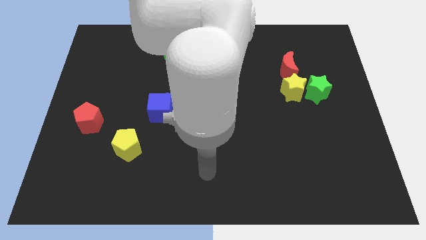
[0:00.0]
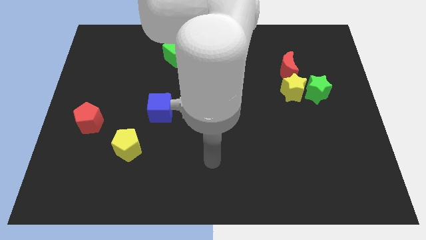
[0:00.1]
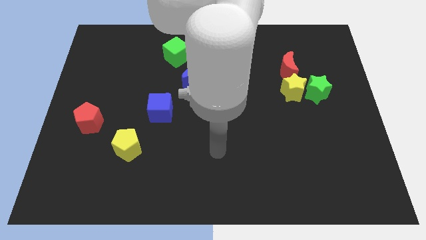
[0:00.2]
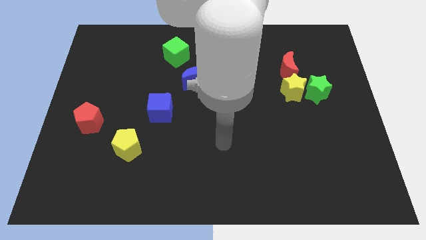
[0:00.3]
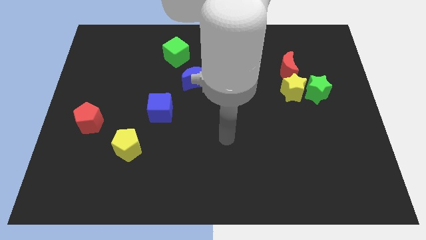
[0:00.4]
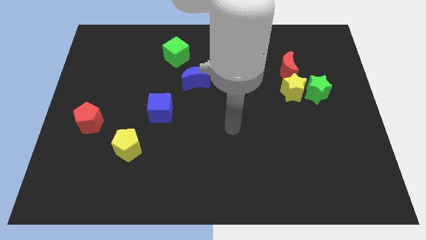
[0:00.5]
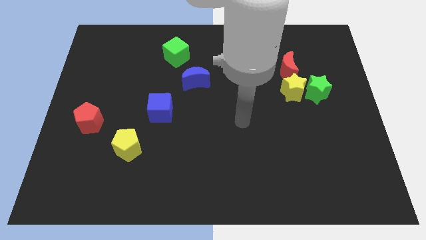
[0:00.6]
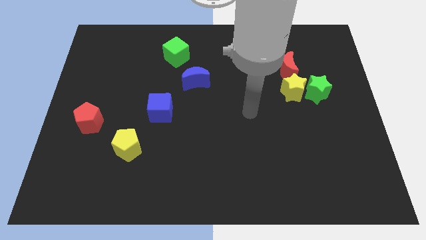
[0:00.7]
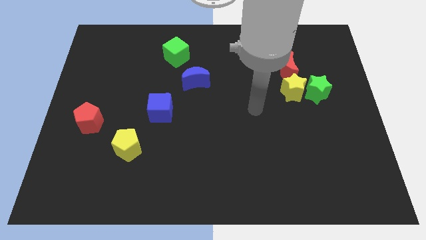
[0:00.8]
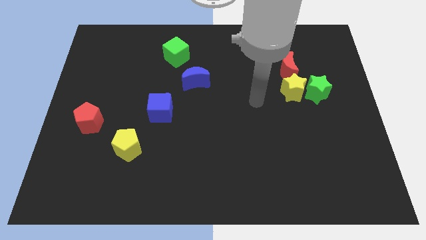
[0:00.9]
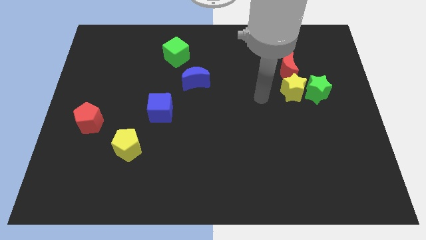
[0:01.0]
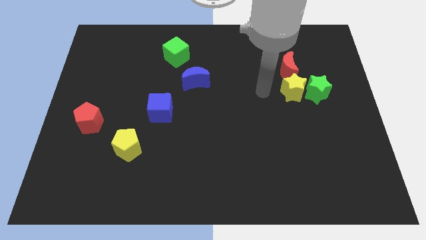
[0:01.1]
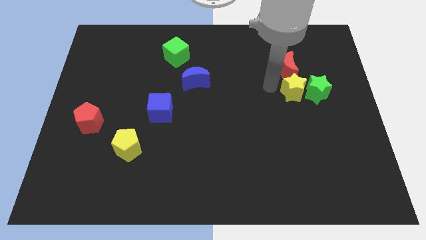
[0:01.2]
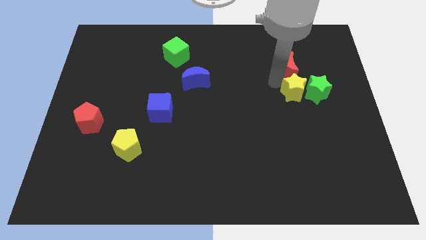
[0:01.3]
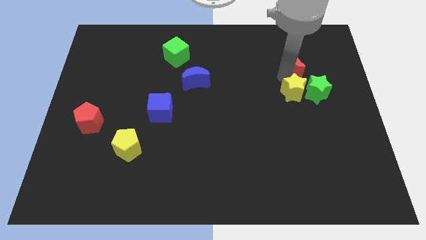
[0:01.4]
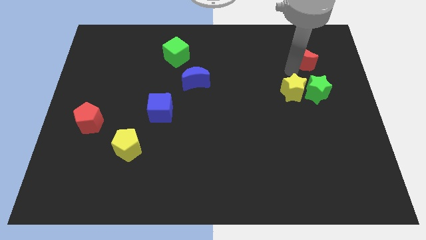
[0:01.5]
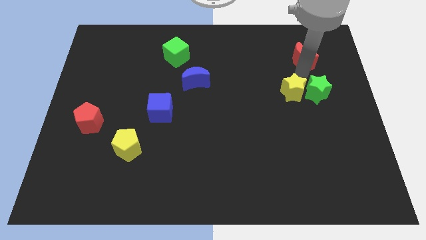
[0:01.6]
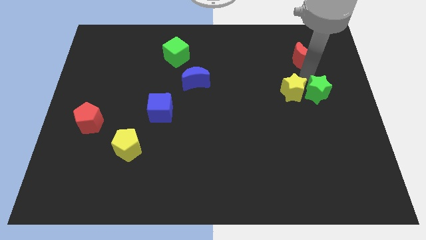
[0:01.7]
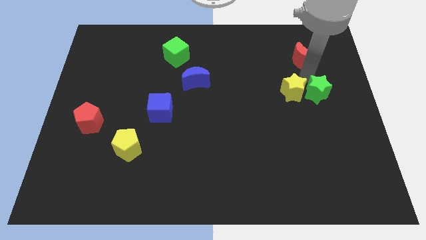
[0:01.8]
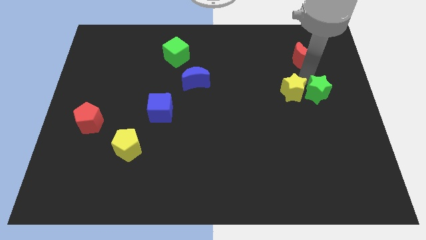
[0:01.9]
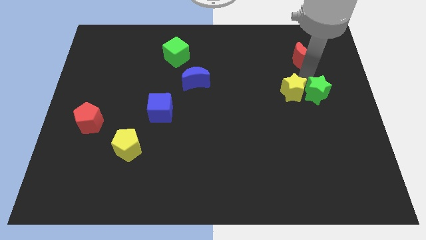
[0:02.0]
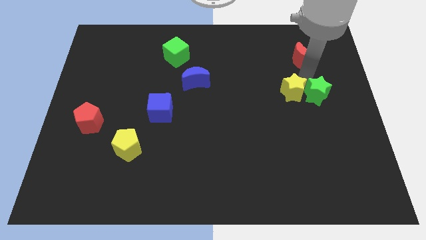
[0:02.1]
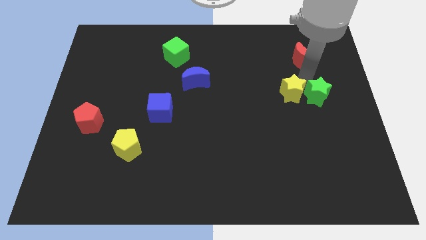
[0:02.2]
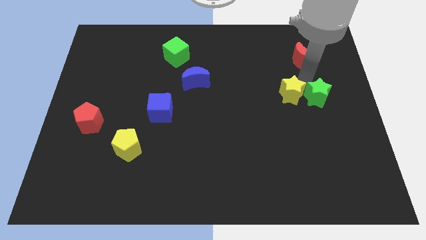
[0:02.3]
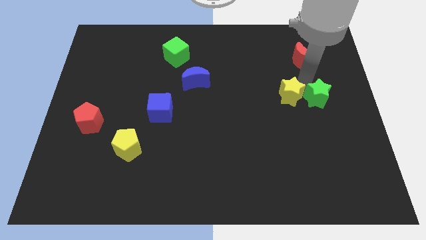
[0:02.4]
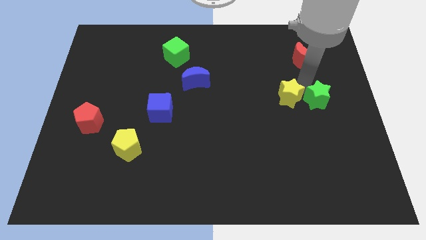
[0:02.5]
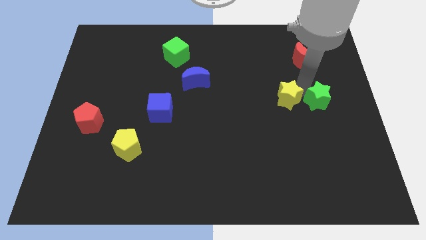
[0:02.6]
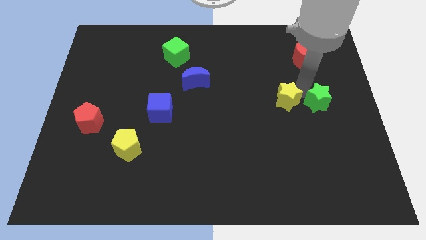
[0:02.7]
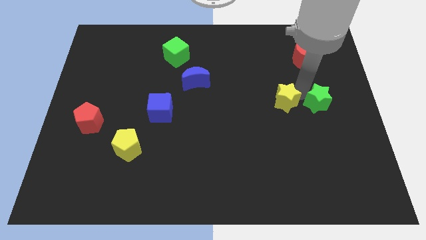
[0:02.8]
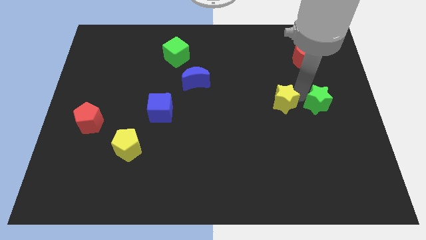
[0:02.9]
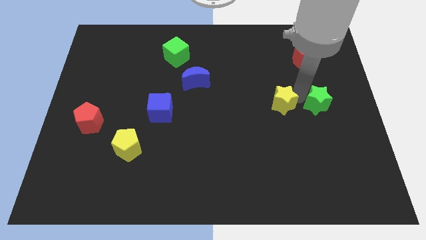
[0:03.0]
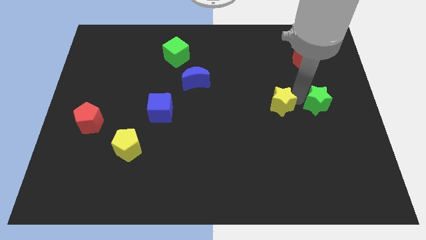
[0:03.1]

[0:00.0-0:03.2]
pull the yellow star apart from the green star and red moon

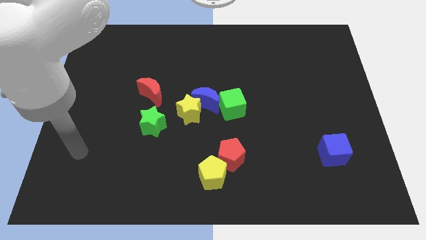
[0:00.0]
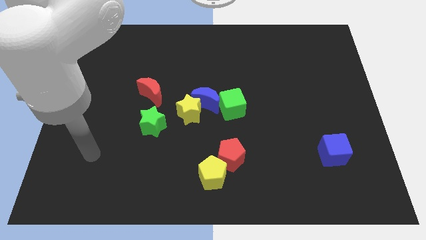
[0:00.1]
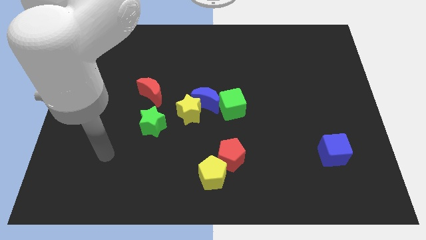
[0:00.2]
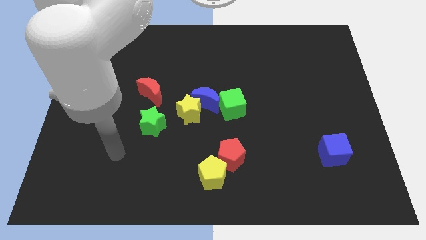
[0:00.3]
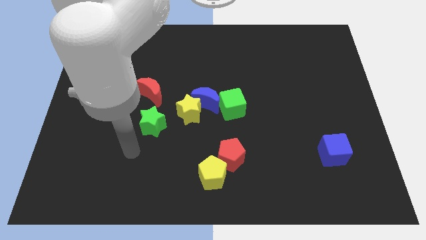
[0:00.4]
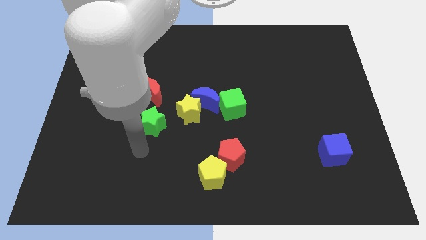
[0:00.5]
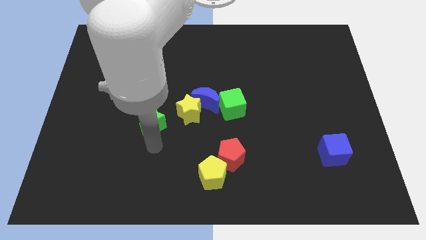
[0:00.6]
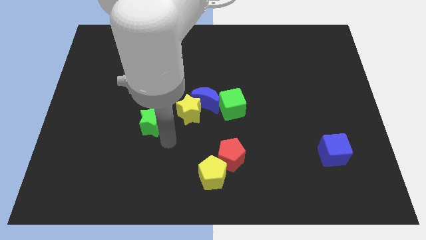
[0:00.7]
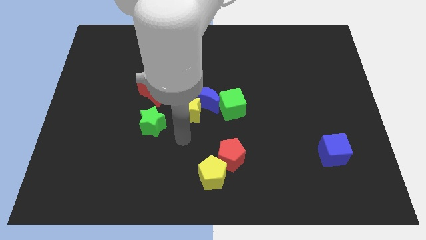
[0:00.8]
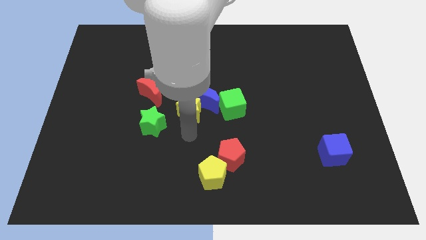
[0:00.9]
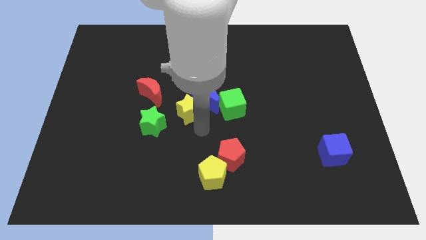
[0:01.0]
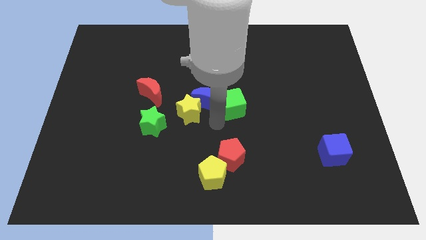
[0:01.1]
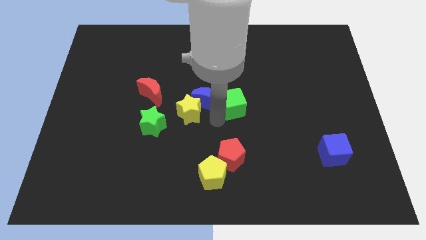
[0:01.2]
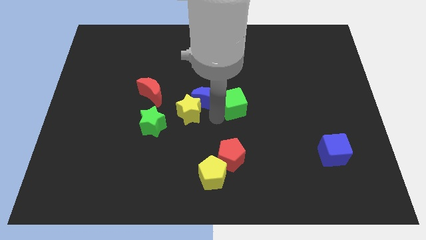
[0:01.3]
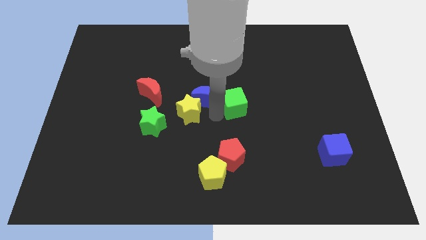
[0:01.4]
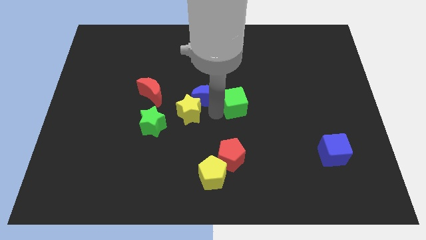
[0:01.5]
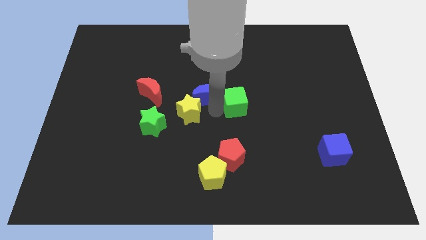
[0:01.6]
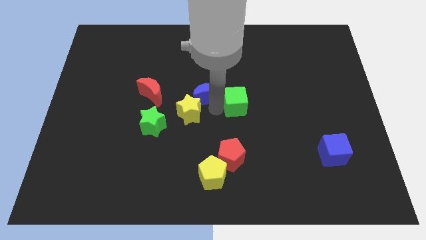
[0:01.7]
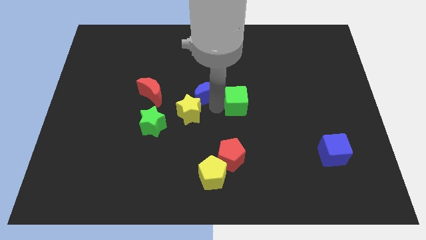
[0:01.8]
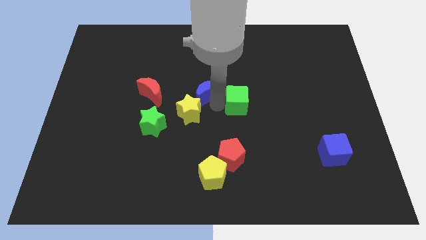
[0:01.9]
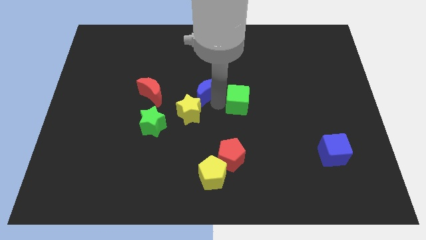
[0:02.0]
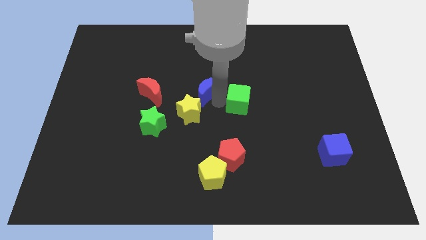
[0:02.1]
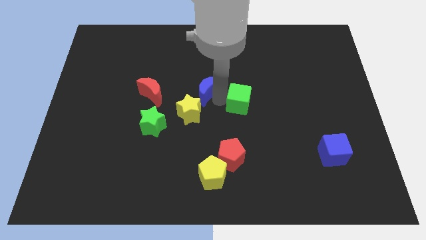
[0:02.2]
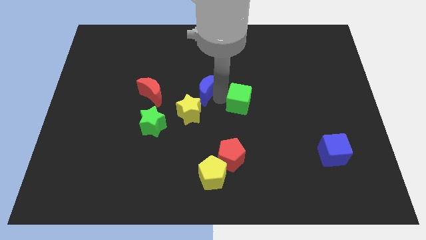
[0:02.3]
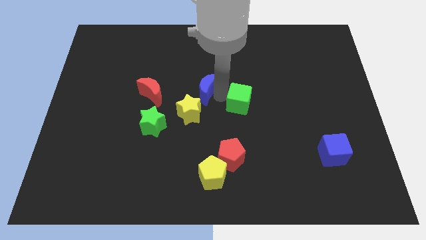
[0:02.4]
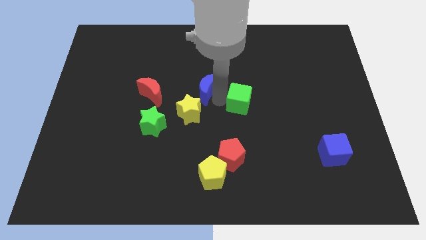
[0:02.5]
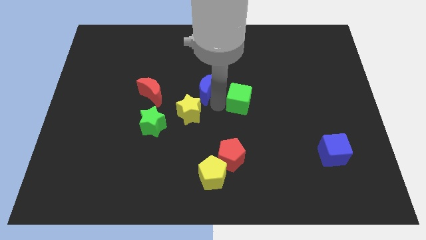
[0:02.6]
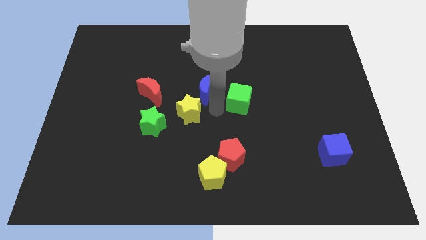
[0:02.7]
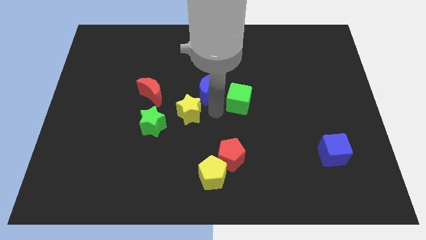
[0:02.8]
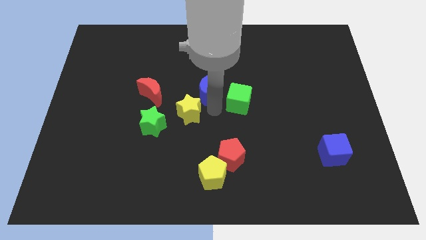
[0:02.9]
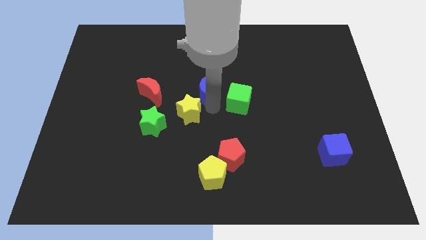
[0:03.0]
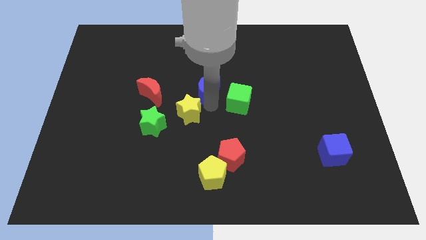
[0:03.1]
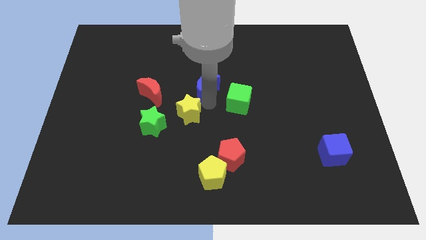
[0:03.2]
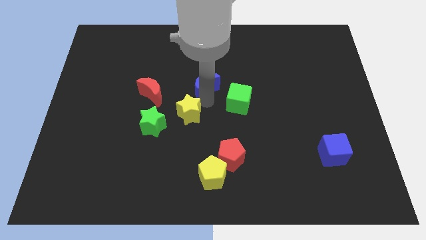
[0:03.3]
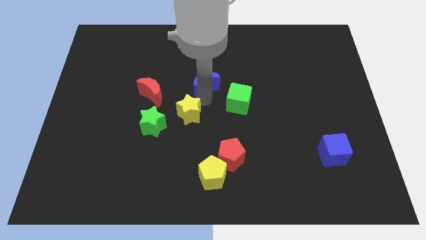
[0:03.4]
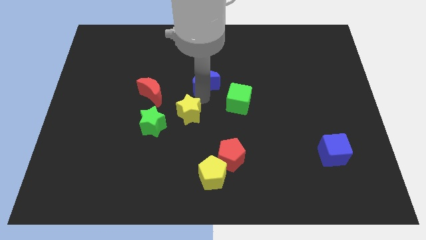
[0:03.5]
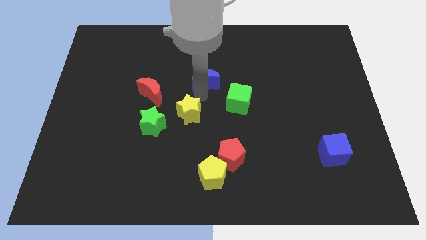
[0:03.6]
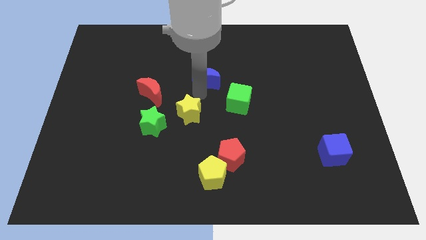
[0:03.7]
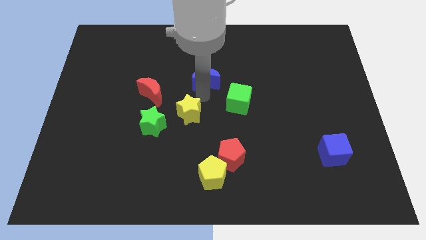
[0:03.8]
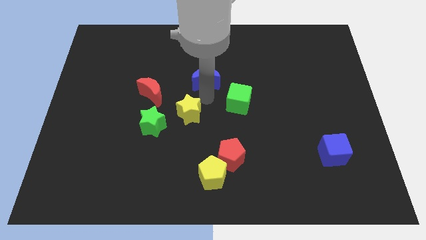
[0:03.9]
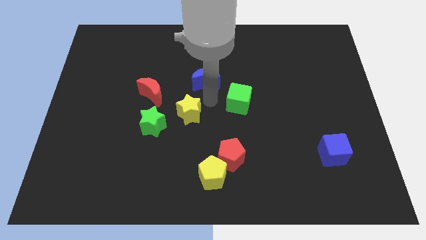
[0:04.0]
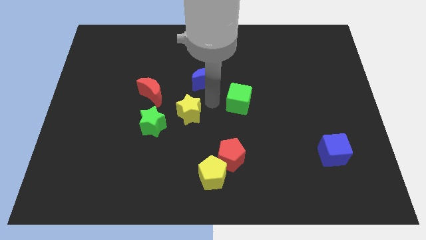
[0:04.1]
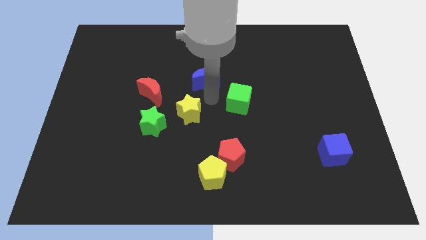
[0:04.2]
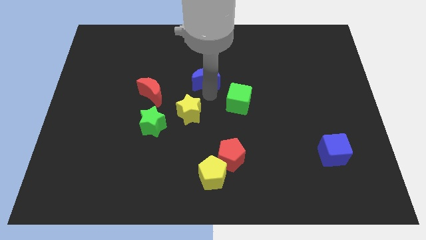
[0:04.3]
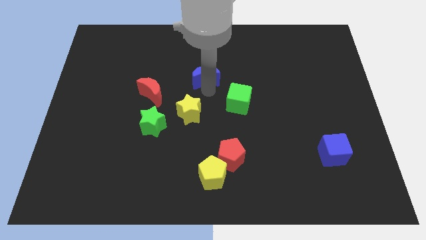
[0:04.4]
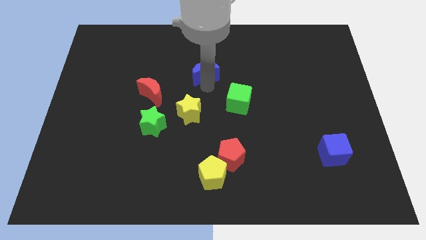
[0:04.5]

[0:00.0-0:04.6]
move the blue moon away from the yellow star and green cube

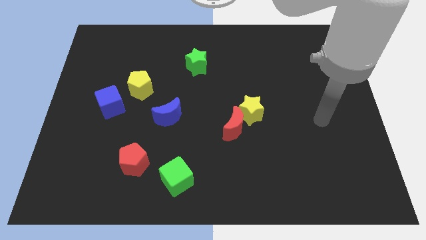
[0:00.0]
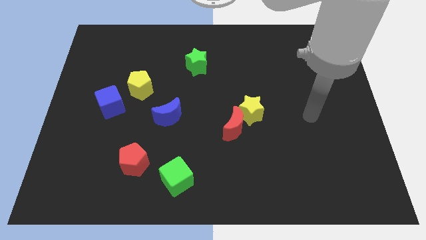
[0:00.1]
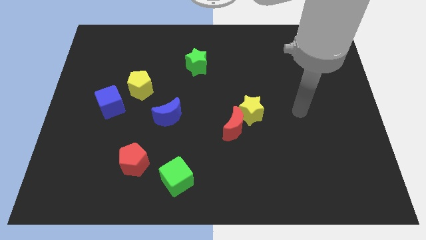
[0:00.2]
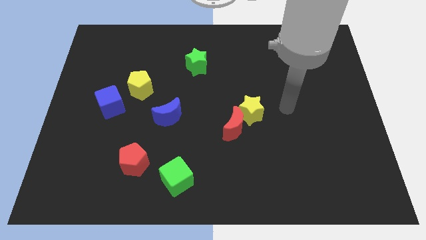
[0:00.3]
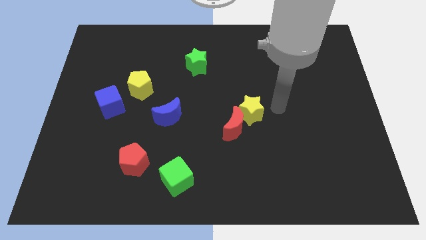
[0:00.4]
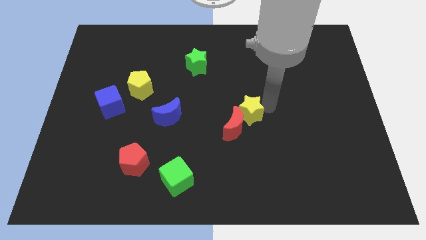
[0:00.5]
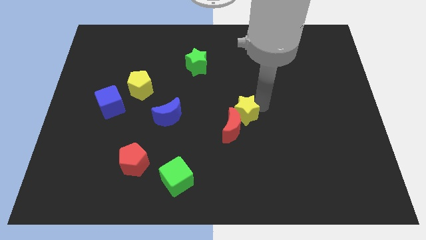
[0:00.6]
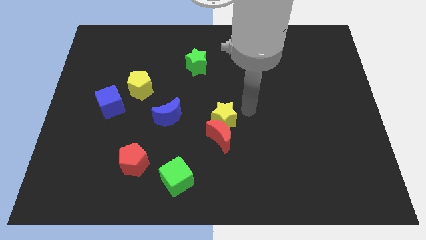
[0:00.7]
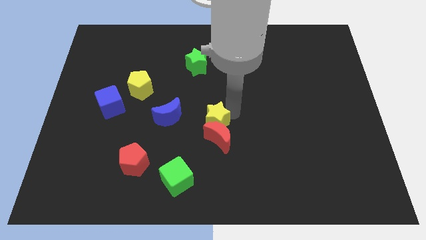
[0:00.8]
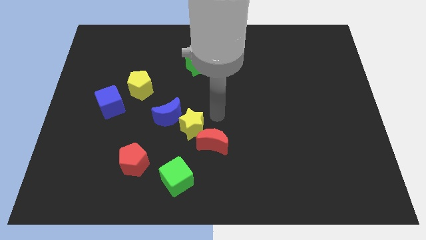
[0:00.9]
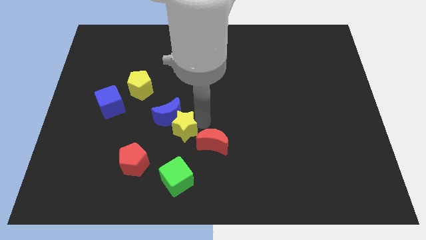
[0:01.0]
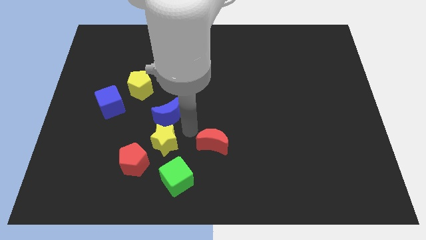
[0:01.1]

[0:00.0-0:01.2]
separate the red moon from the yellow star

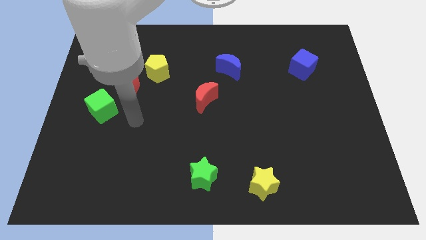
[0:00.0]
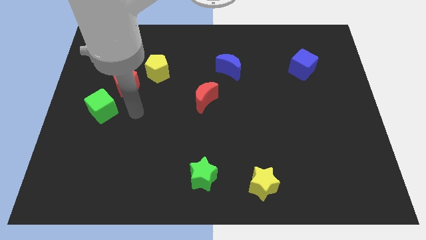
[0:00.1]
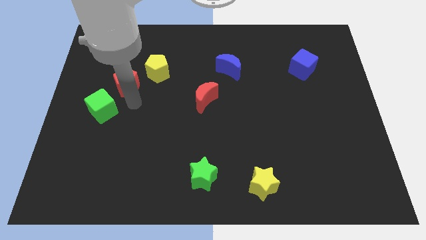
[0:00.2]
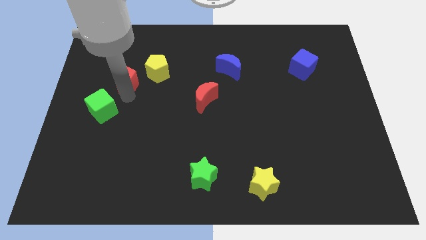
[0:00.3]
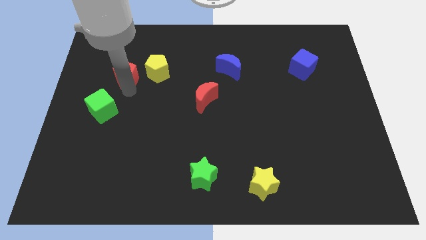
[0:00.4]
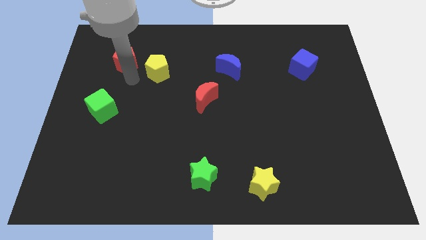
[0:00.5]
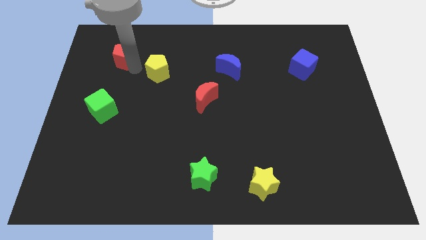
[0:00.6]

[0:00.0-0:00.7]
separate the yellow pentagon from the red pentagon
